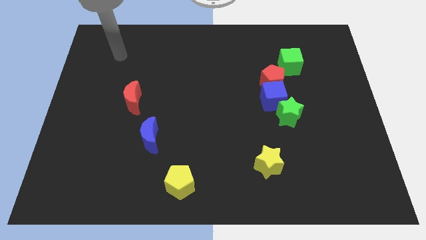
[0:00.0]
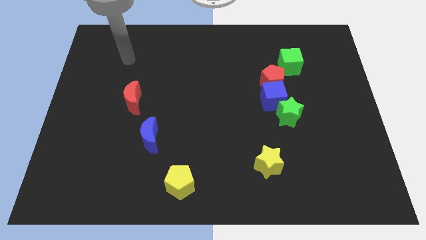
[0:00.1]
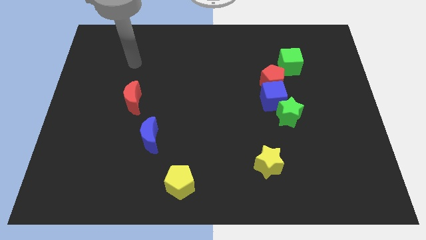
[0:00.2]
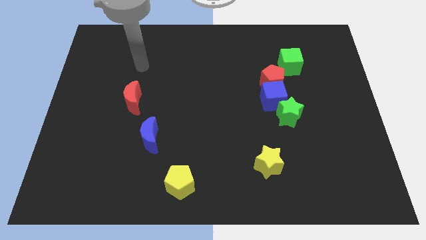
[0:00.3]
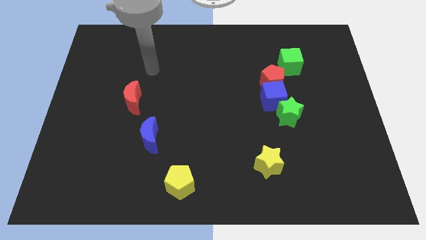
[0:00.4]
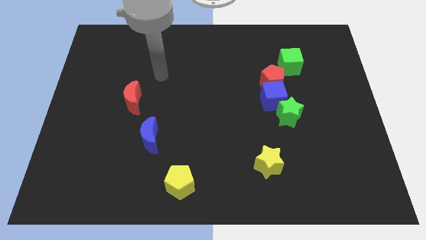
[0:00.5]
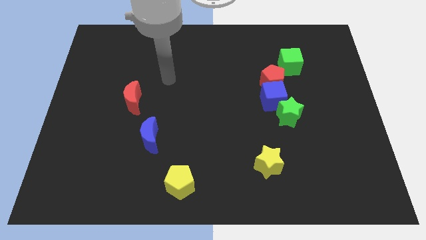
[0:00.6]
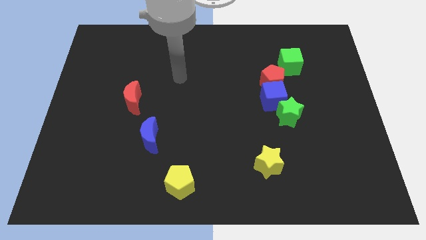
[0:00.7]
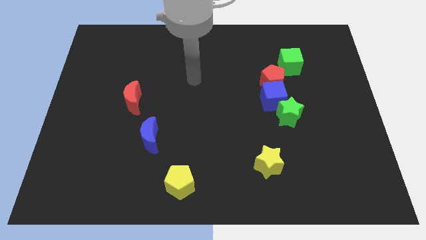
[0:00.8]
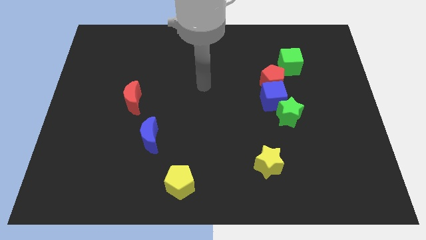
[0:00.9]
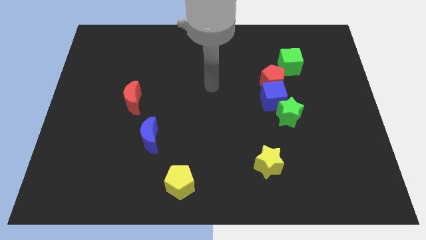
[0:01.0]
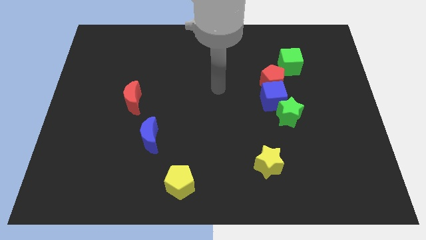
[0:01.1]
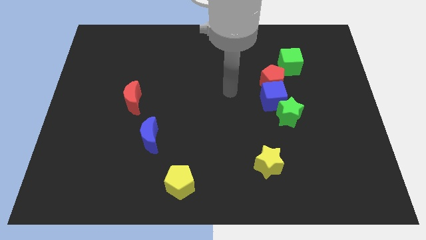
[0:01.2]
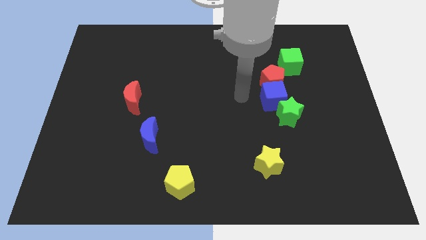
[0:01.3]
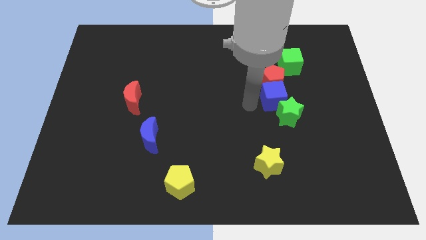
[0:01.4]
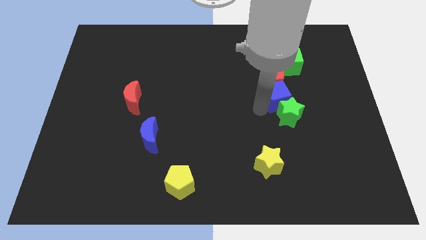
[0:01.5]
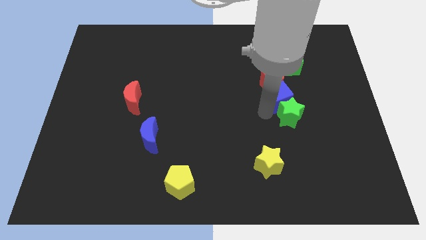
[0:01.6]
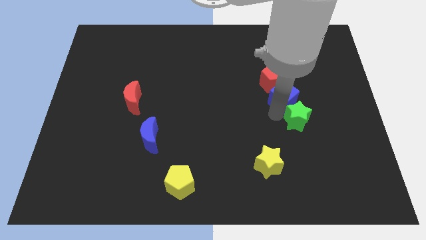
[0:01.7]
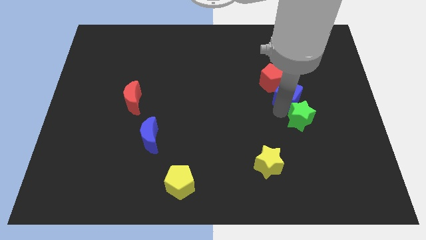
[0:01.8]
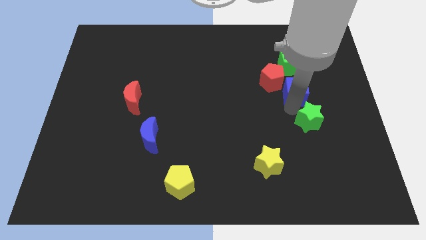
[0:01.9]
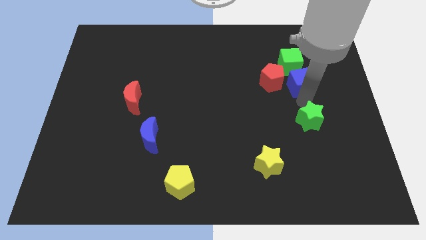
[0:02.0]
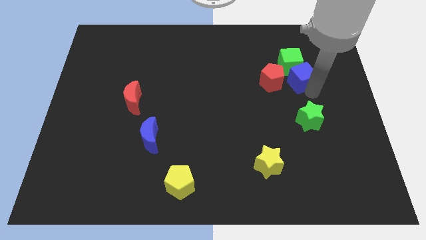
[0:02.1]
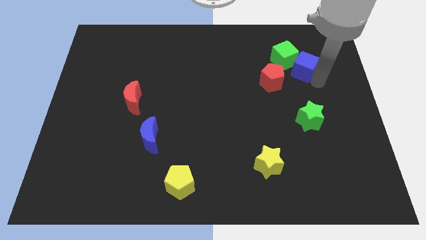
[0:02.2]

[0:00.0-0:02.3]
separate the blue cube from the red pentagon and green star

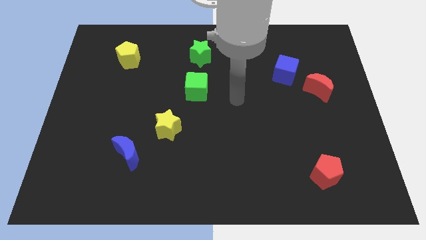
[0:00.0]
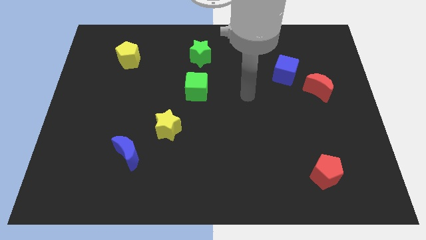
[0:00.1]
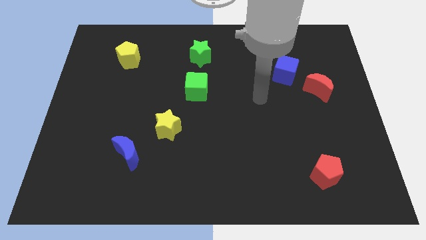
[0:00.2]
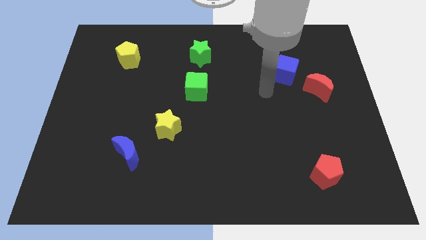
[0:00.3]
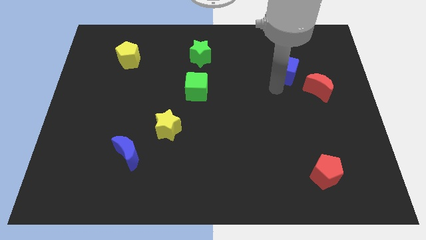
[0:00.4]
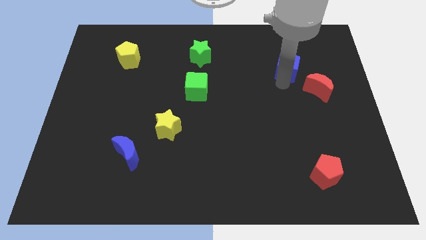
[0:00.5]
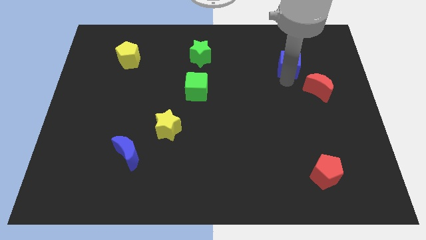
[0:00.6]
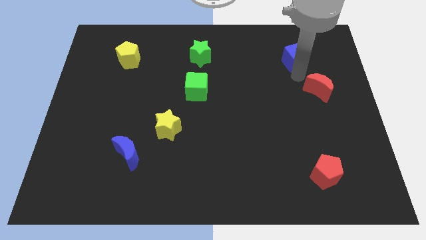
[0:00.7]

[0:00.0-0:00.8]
pull the red moon apart from the blue cube

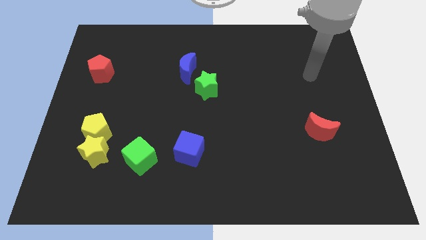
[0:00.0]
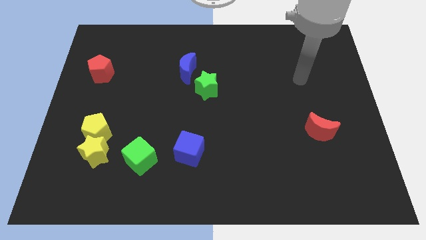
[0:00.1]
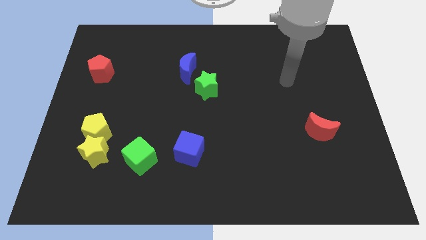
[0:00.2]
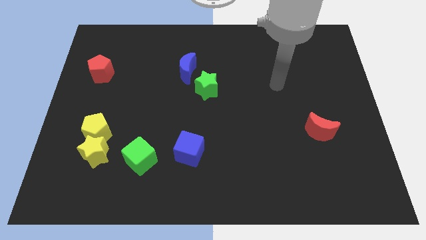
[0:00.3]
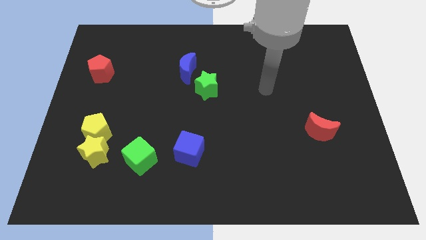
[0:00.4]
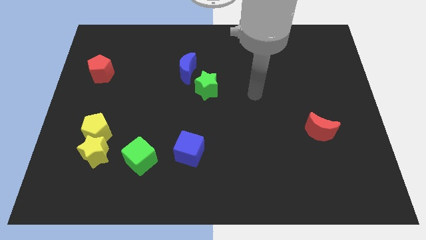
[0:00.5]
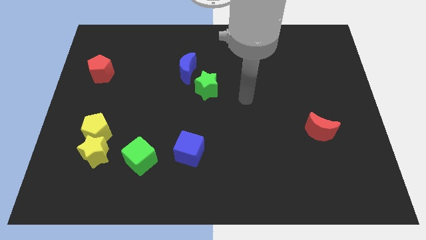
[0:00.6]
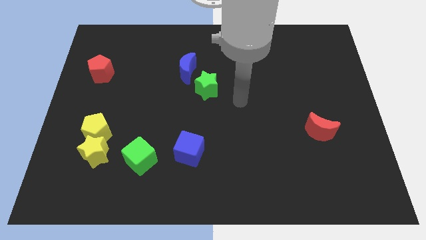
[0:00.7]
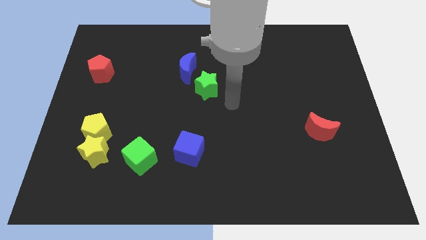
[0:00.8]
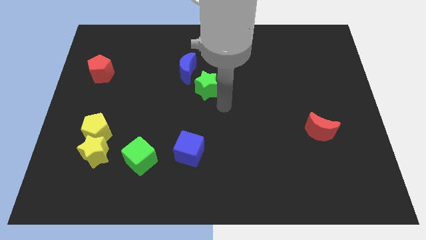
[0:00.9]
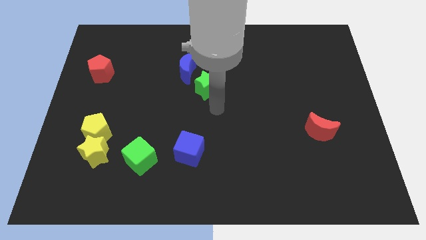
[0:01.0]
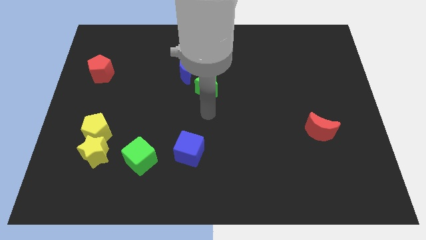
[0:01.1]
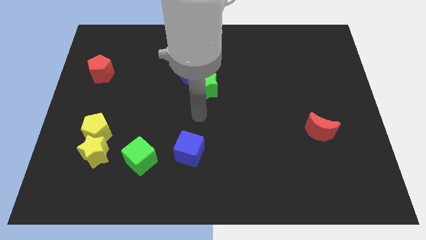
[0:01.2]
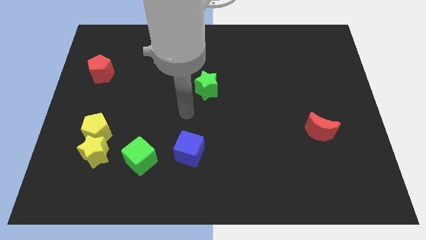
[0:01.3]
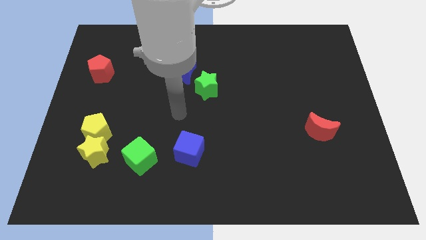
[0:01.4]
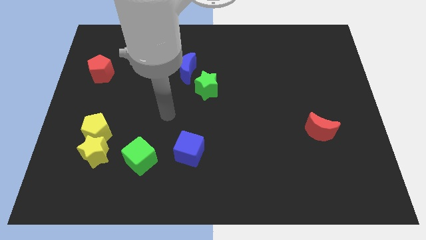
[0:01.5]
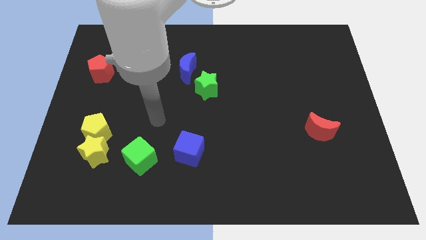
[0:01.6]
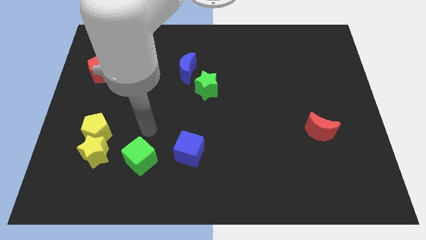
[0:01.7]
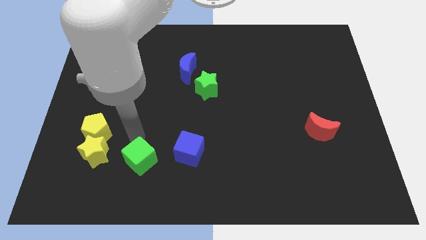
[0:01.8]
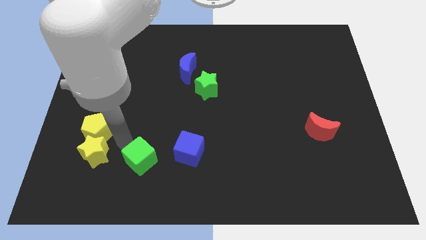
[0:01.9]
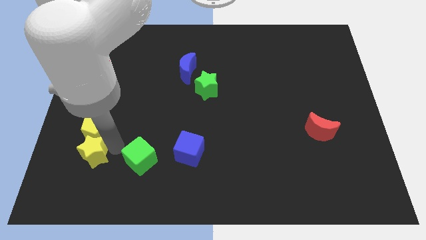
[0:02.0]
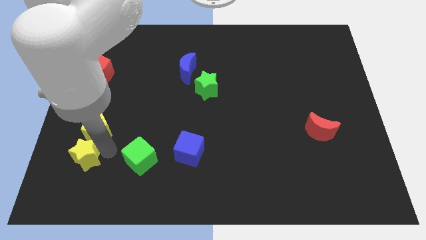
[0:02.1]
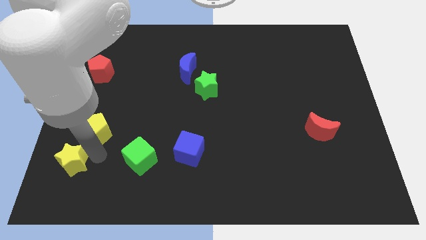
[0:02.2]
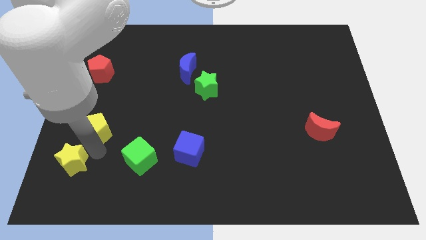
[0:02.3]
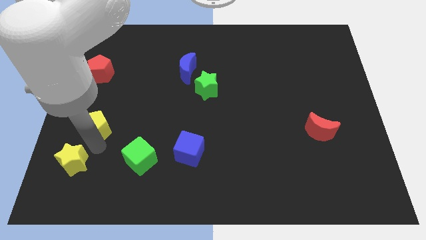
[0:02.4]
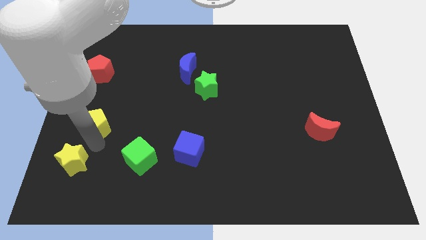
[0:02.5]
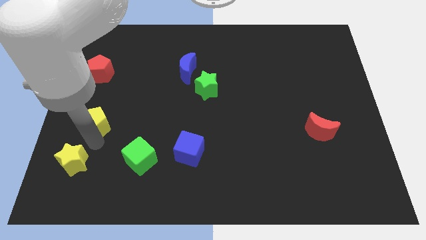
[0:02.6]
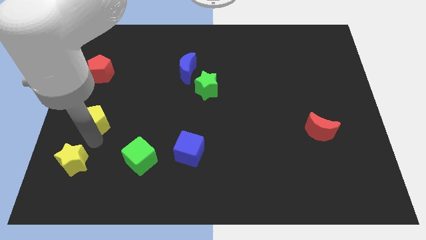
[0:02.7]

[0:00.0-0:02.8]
separate the yellow pentagon from the yellow star

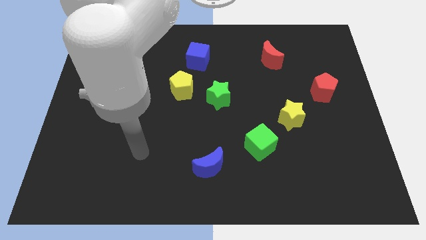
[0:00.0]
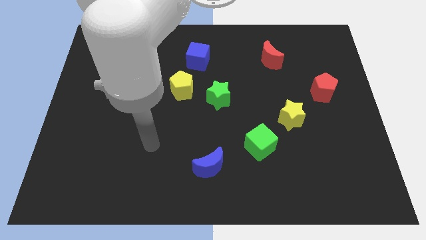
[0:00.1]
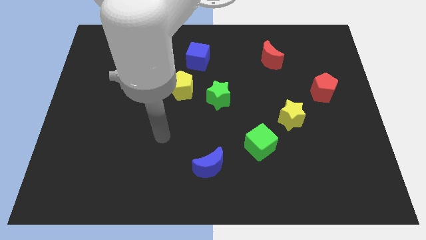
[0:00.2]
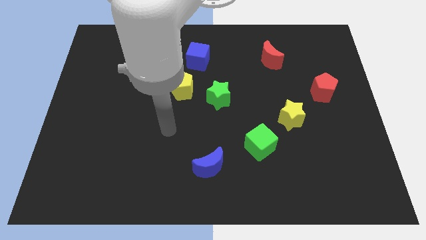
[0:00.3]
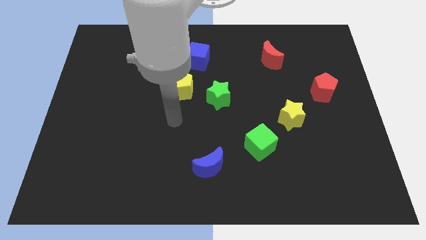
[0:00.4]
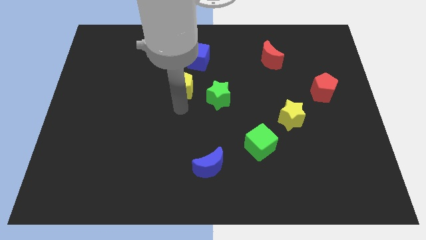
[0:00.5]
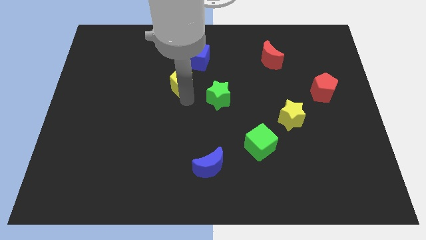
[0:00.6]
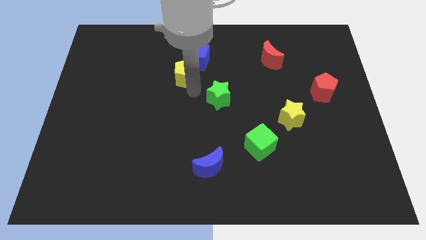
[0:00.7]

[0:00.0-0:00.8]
move the green star away from the yellow pentagon

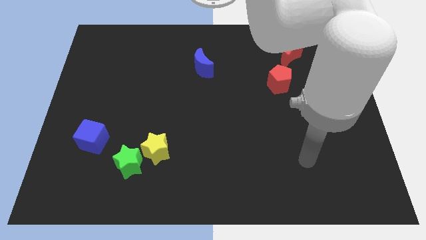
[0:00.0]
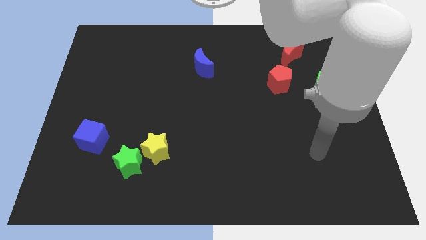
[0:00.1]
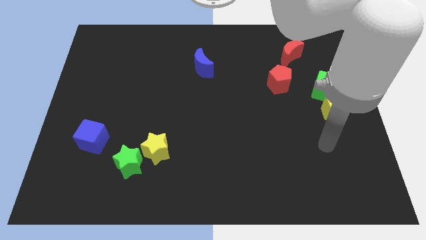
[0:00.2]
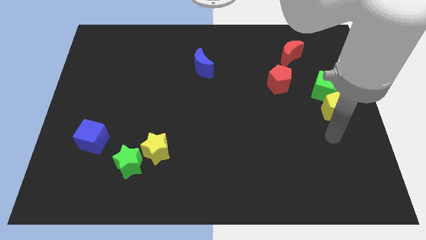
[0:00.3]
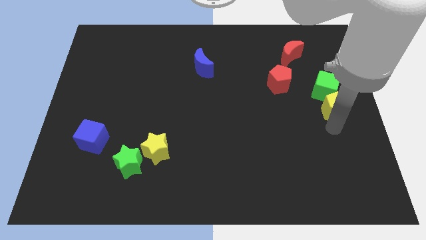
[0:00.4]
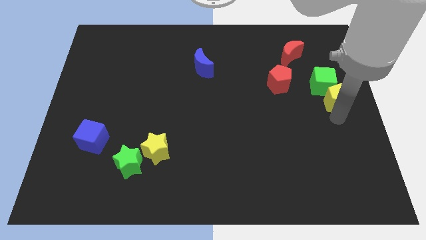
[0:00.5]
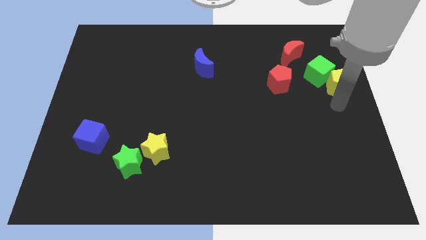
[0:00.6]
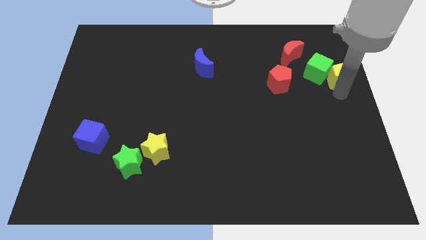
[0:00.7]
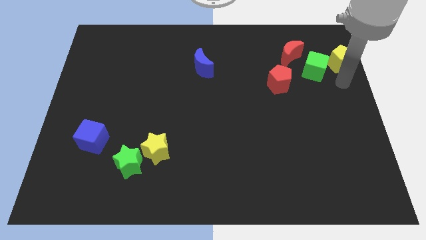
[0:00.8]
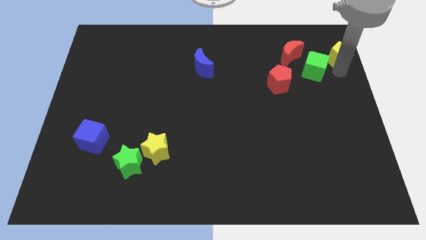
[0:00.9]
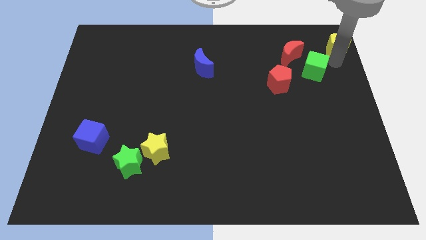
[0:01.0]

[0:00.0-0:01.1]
pull the green cube apart from the yellow pentagon

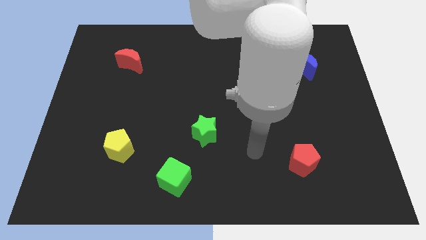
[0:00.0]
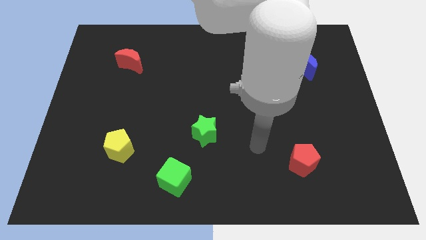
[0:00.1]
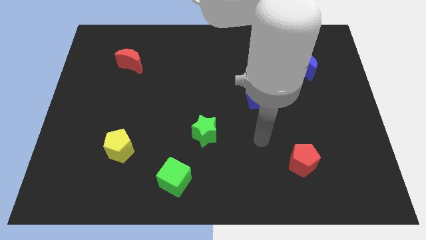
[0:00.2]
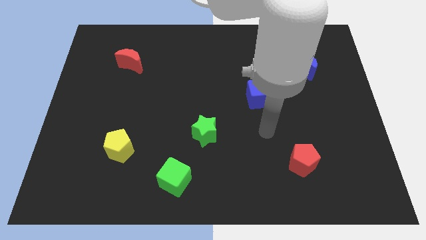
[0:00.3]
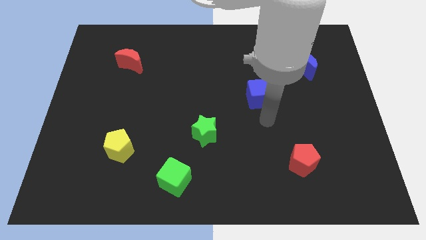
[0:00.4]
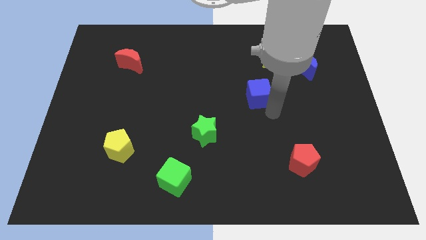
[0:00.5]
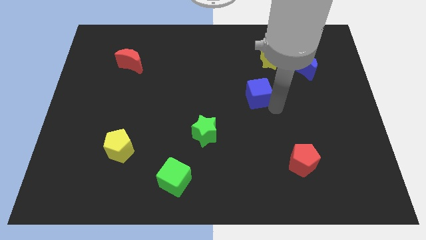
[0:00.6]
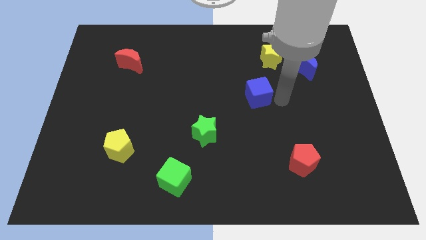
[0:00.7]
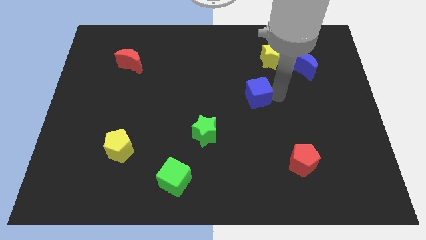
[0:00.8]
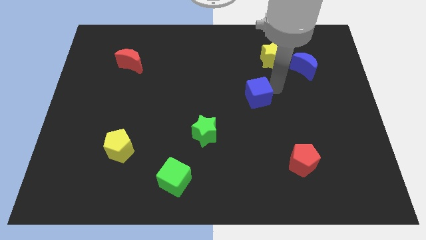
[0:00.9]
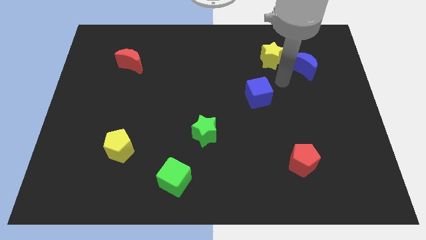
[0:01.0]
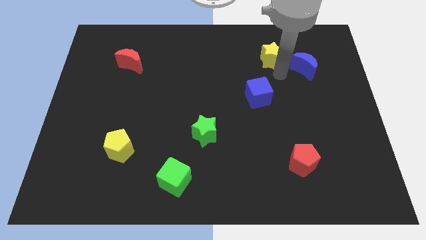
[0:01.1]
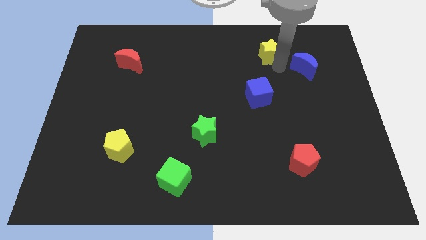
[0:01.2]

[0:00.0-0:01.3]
separate the blue moon from the yellow star

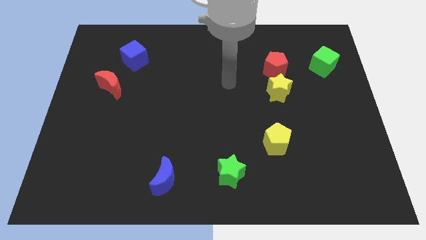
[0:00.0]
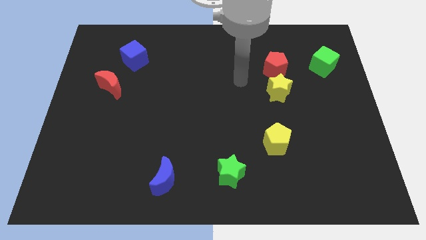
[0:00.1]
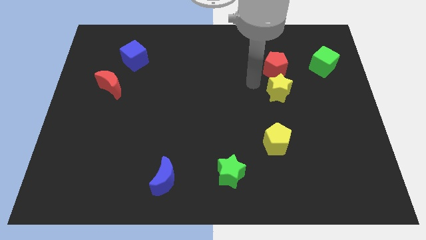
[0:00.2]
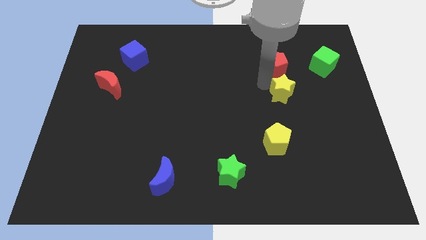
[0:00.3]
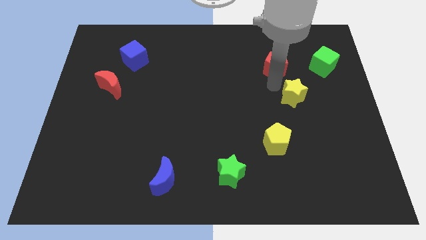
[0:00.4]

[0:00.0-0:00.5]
separate the red pentagon from the yellow star
